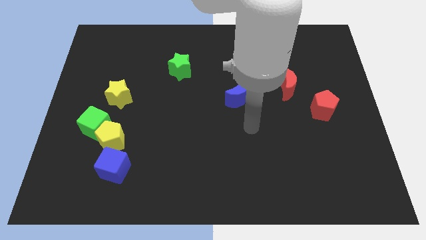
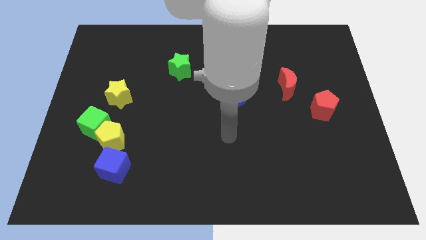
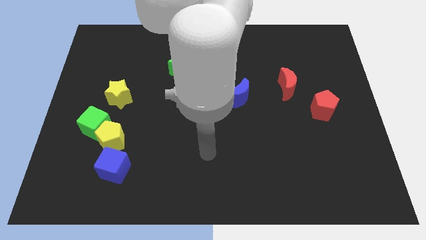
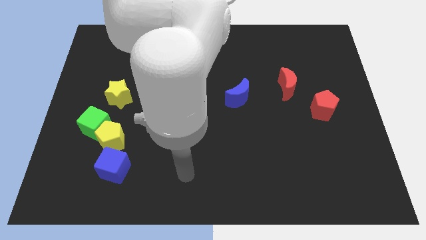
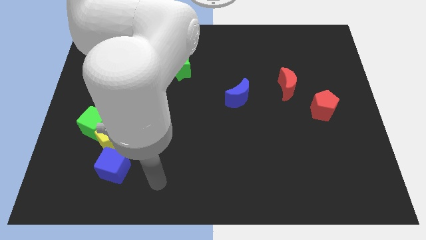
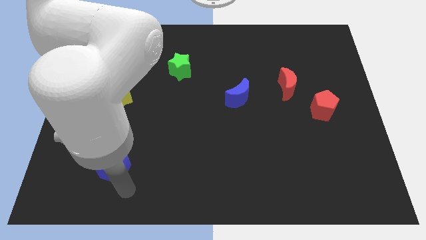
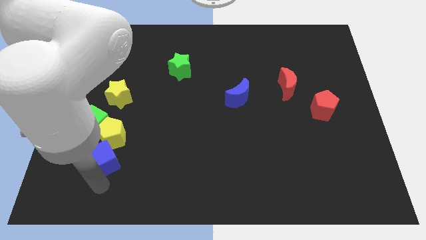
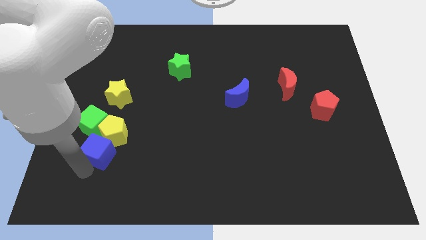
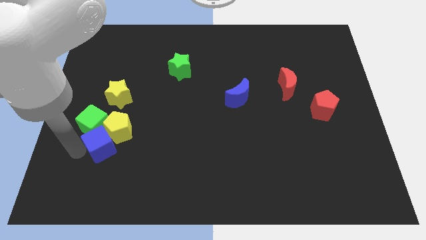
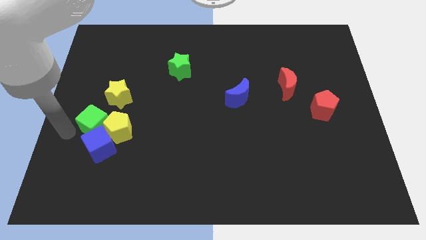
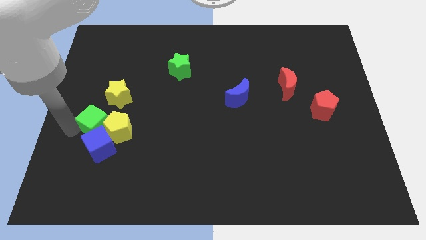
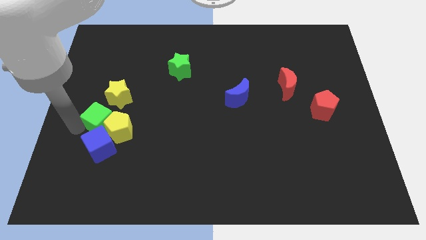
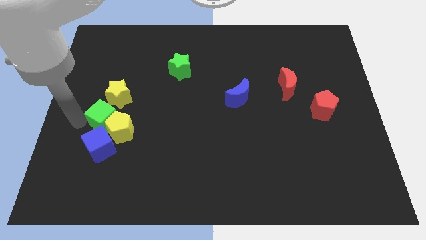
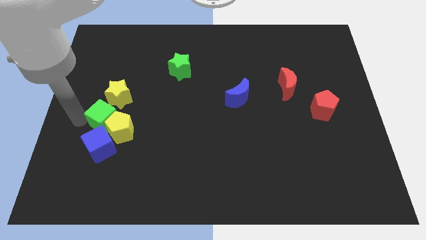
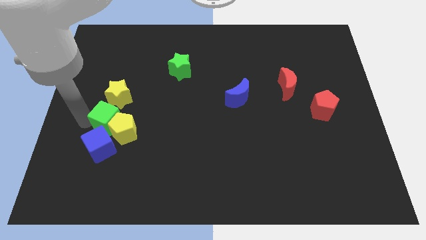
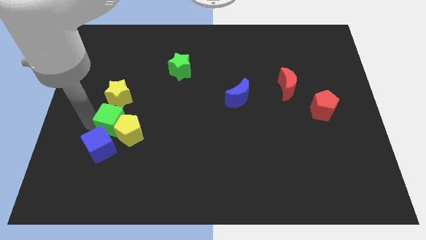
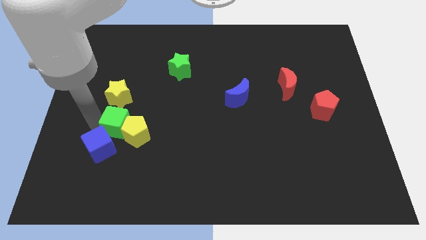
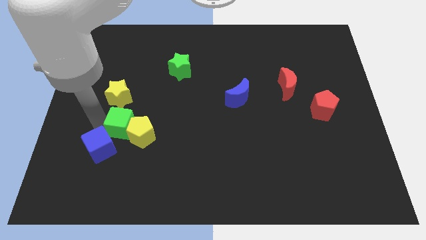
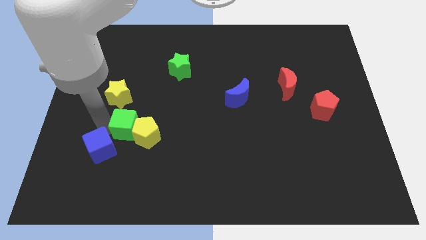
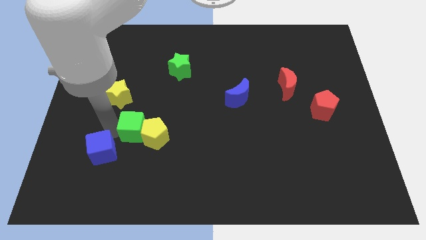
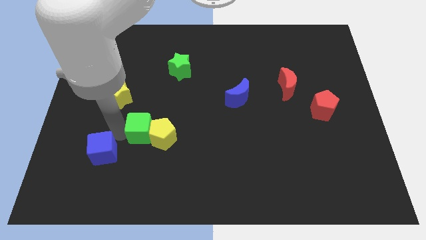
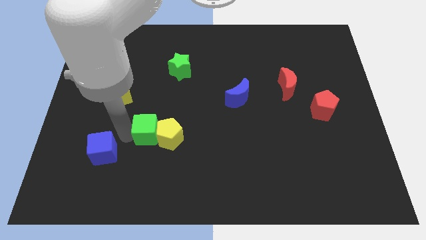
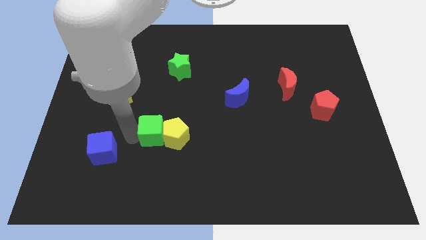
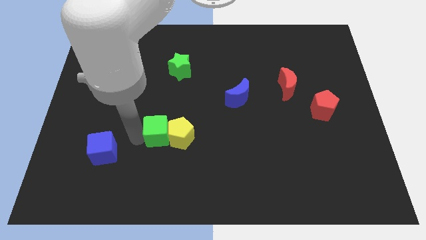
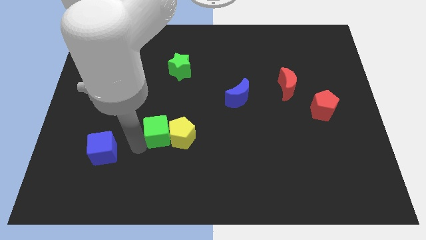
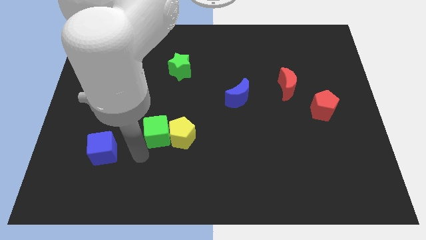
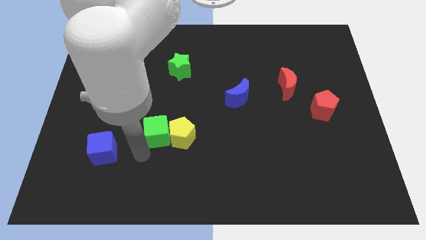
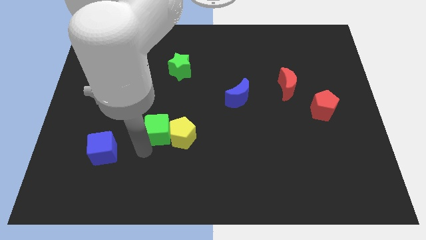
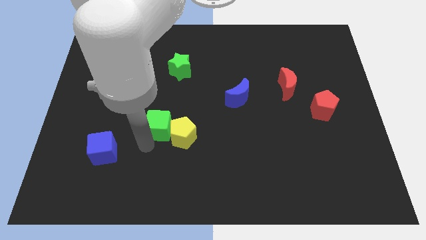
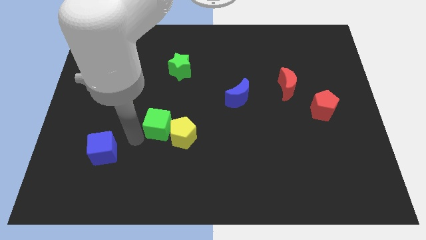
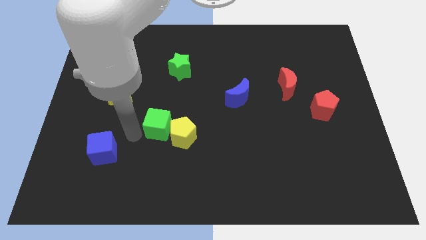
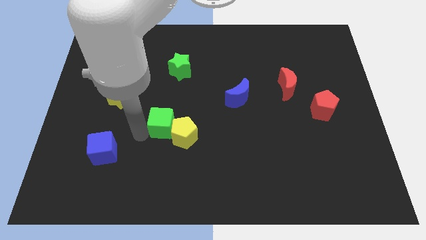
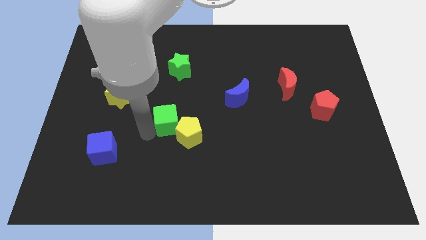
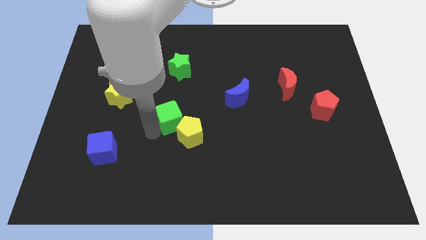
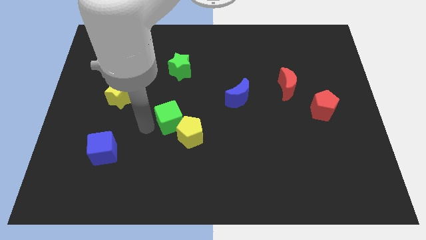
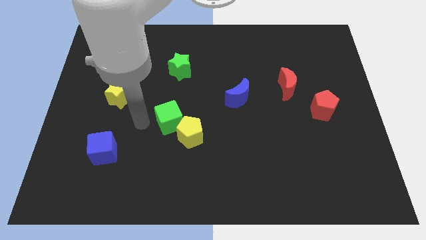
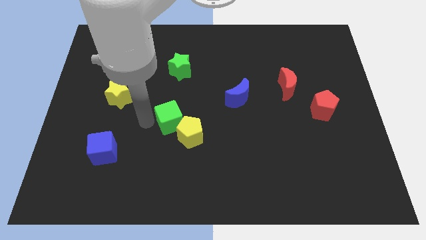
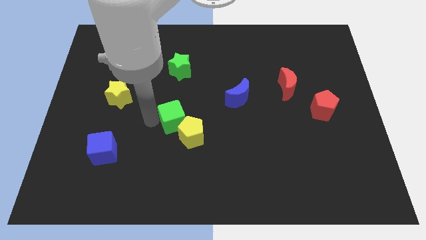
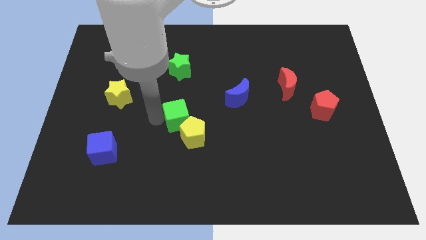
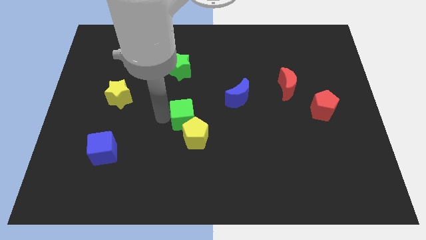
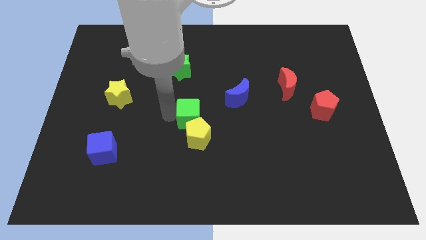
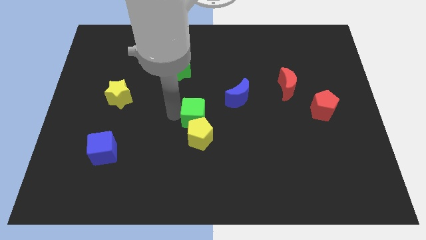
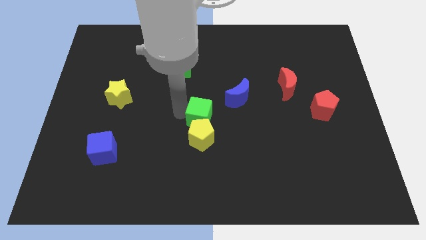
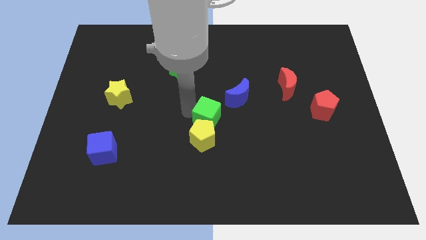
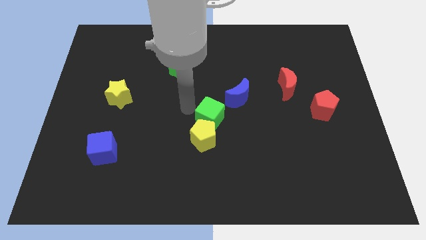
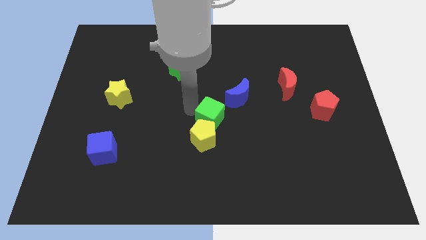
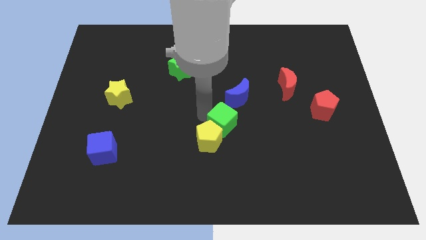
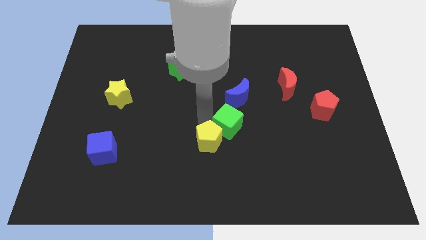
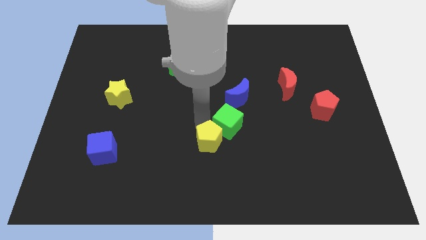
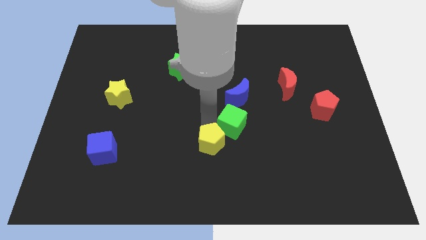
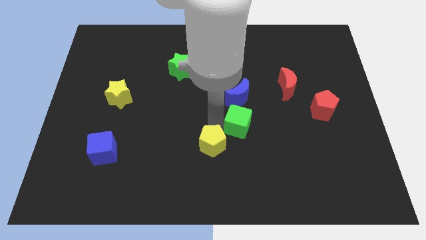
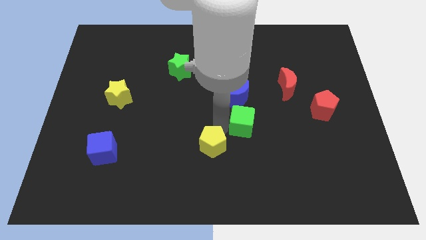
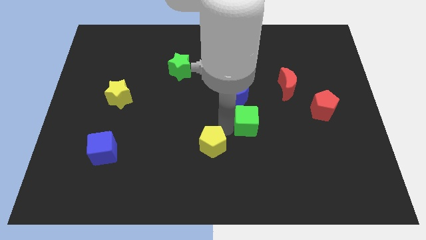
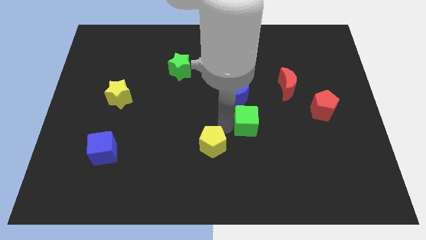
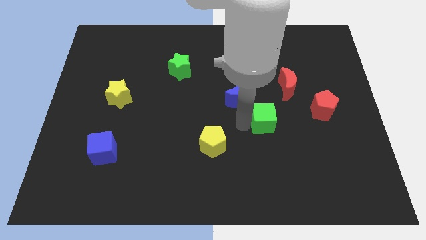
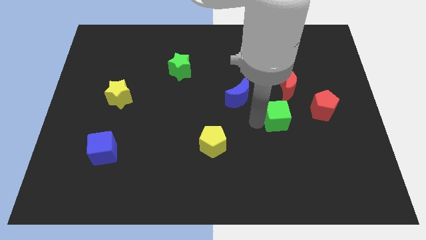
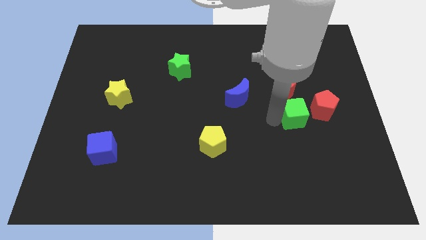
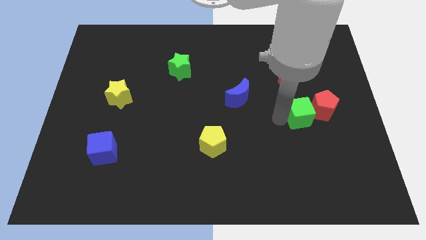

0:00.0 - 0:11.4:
move the green cube to the red pentagon

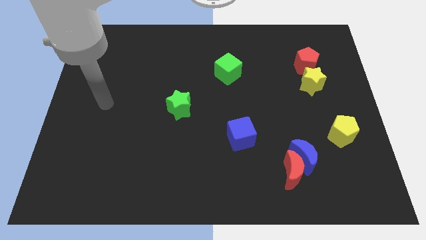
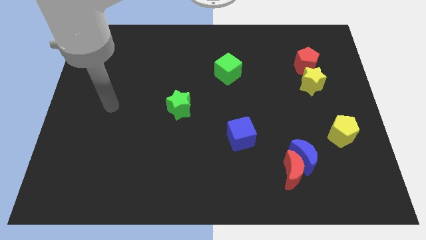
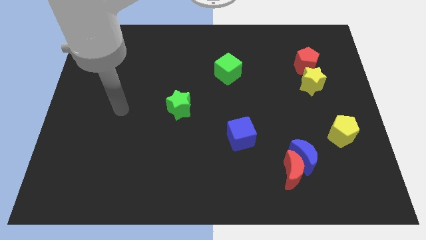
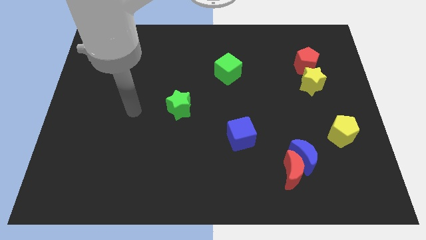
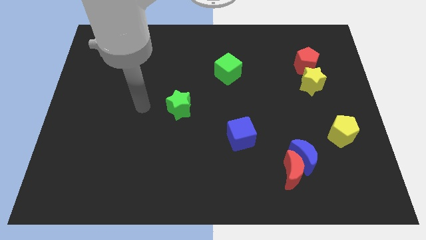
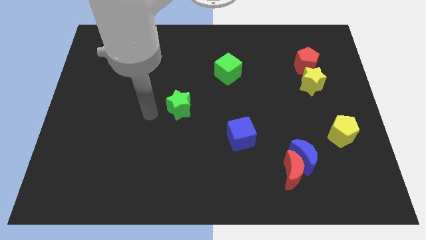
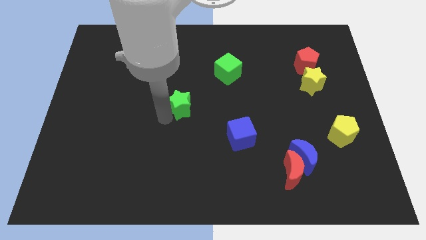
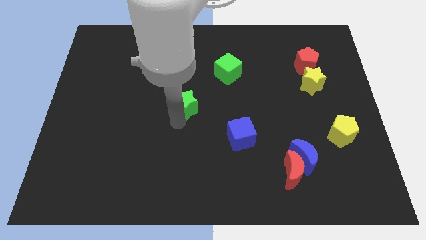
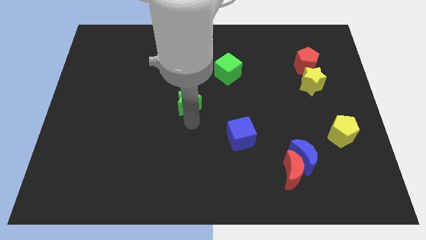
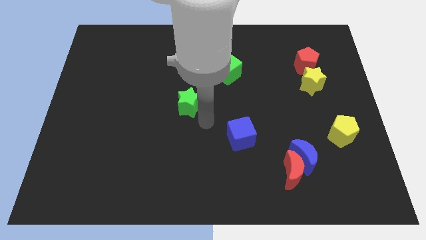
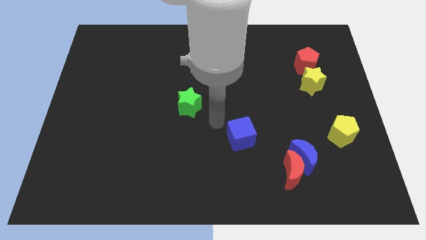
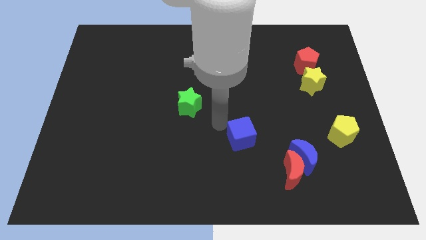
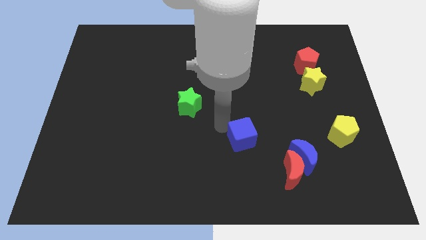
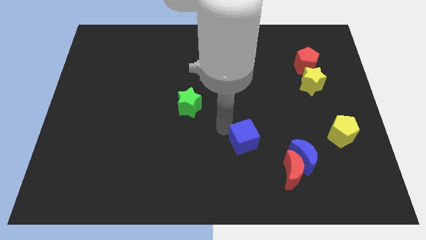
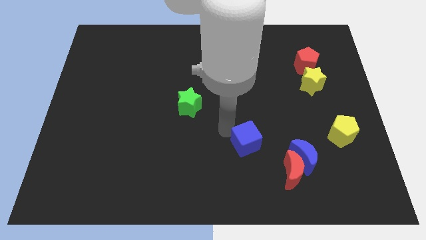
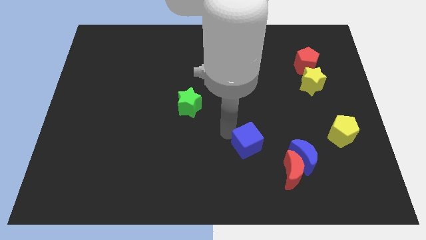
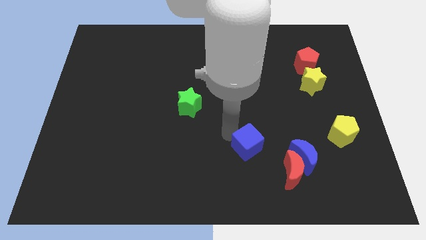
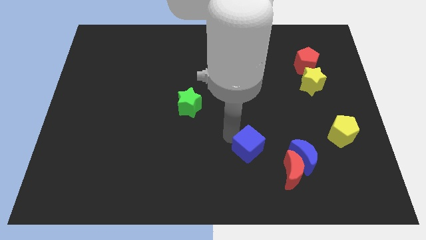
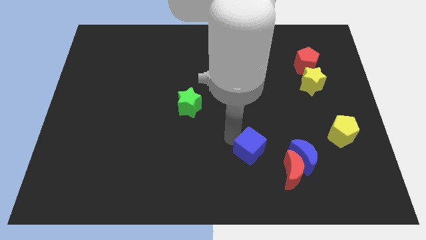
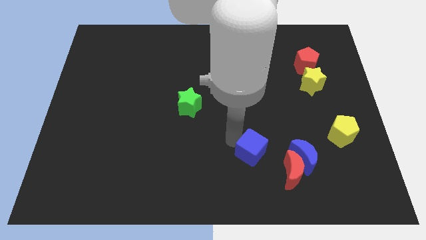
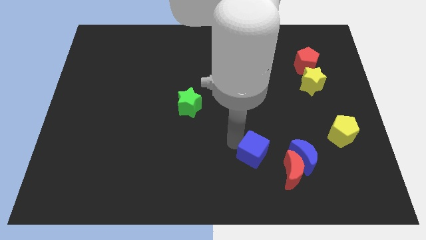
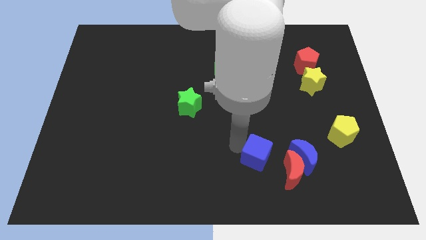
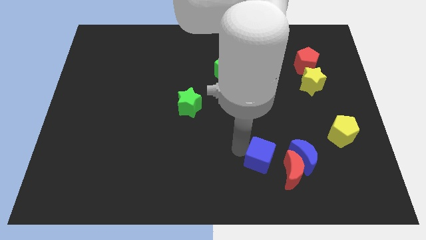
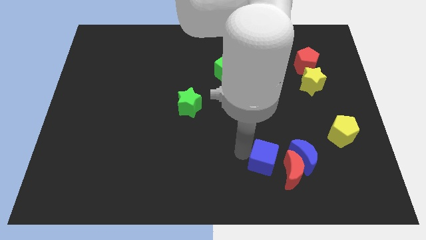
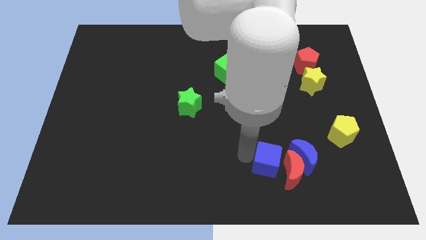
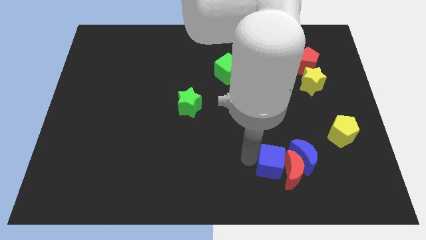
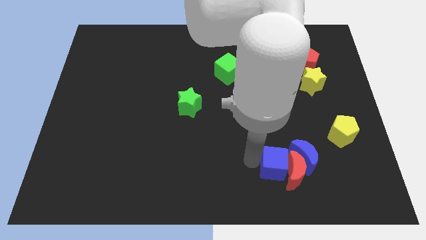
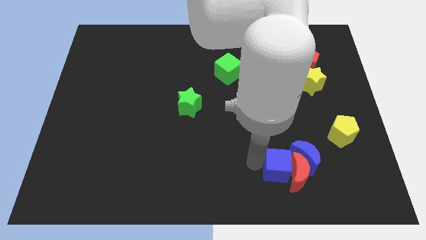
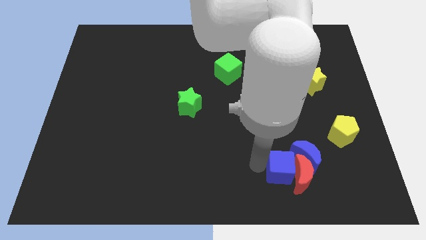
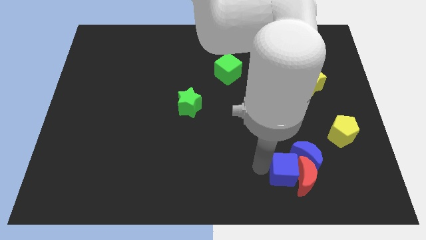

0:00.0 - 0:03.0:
push the blue cube next to the blue moon
